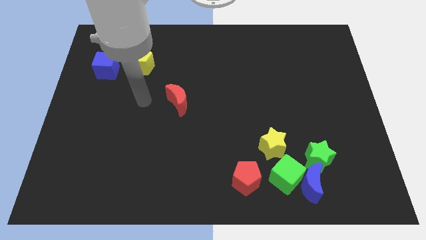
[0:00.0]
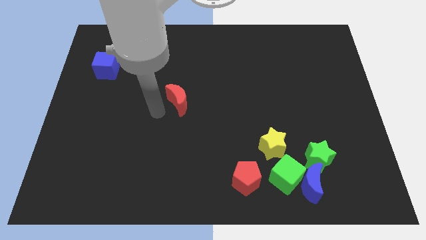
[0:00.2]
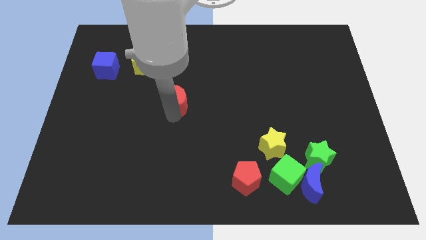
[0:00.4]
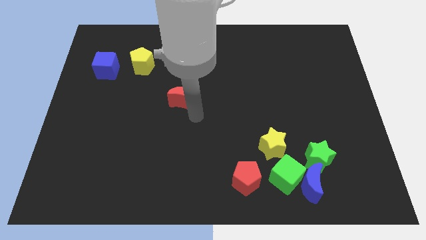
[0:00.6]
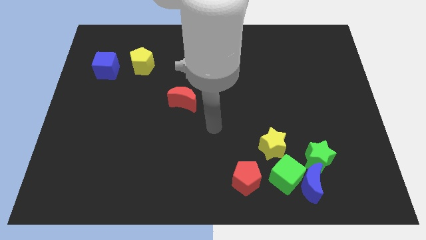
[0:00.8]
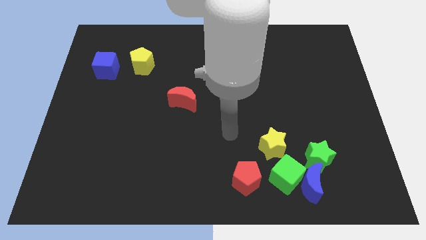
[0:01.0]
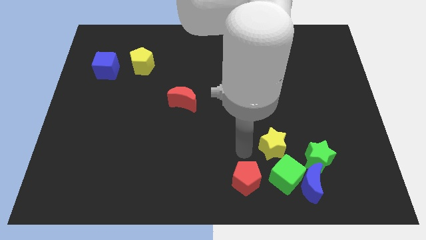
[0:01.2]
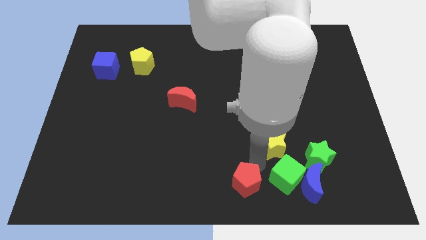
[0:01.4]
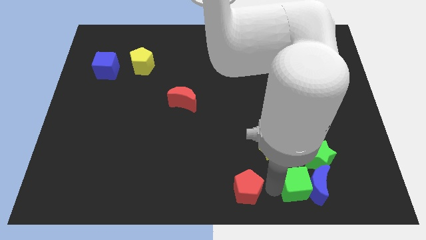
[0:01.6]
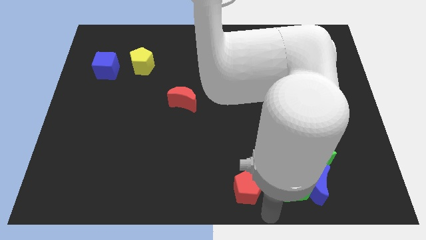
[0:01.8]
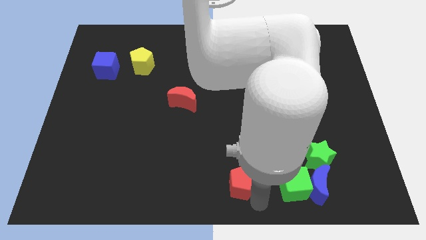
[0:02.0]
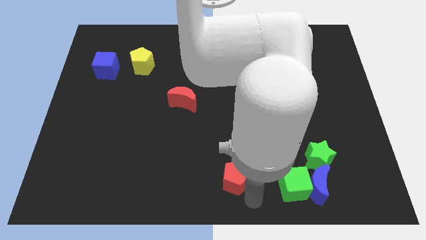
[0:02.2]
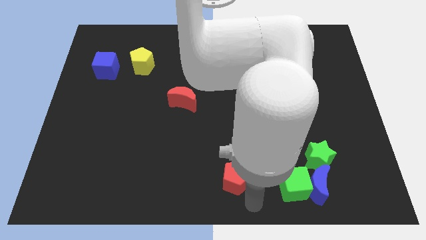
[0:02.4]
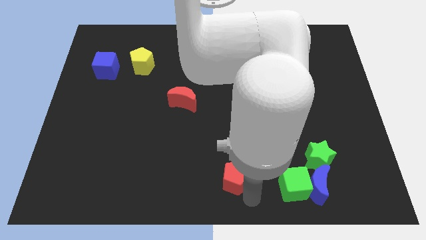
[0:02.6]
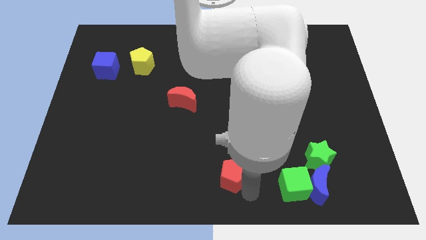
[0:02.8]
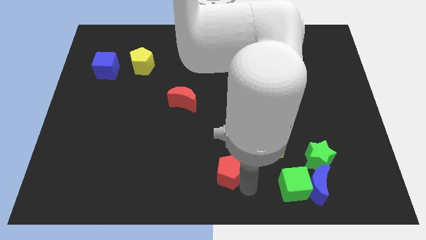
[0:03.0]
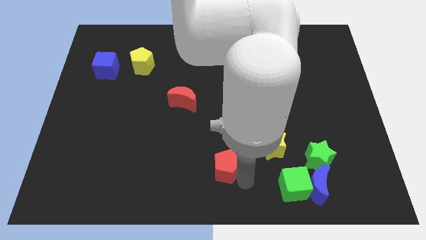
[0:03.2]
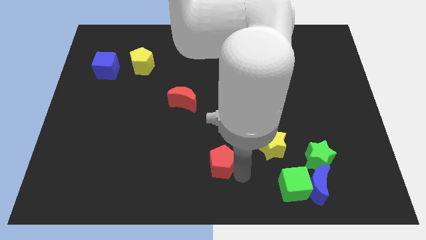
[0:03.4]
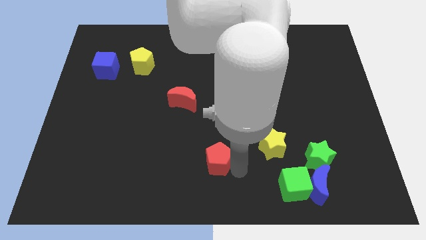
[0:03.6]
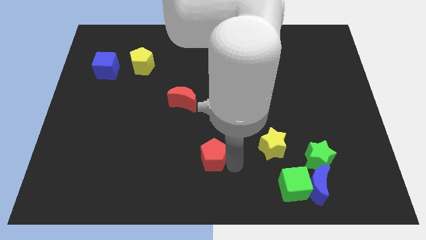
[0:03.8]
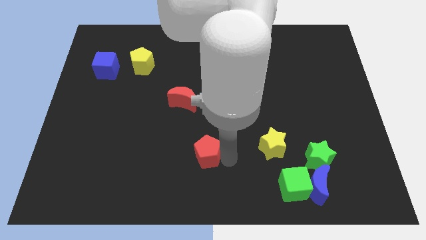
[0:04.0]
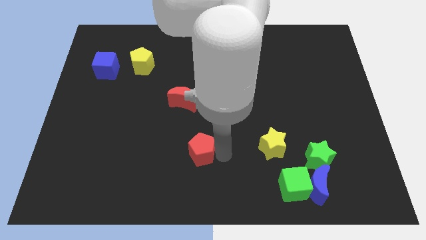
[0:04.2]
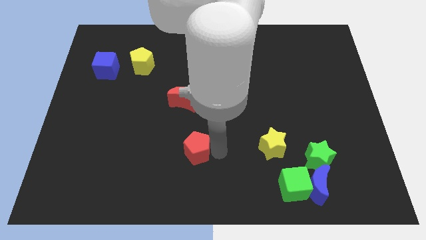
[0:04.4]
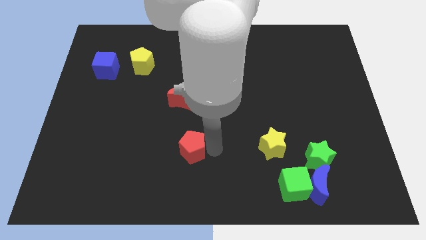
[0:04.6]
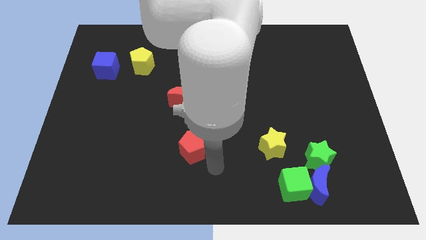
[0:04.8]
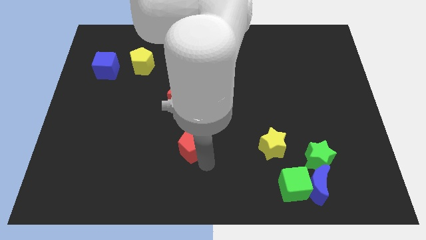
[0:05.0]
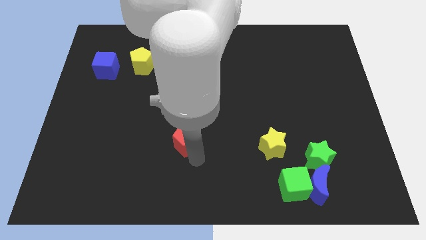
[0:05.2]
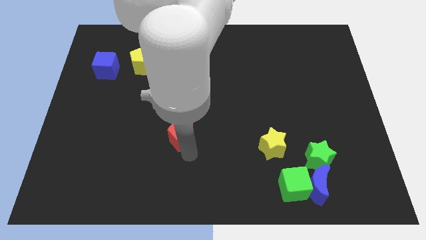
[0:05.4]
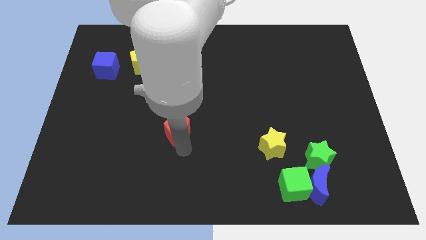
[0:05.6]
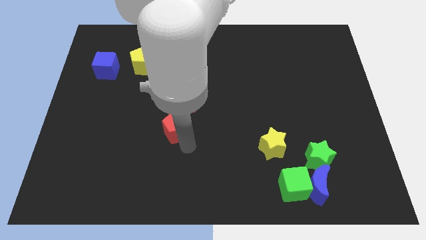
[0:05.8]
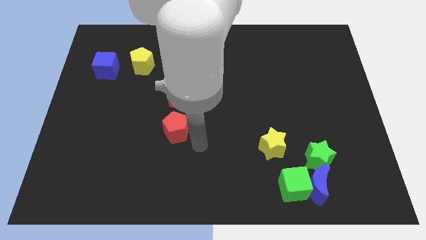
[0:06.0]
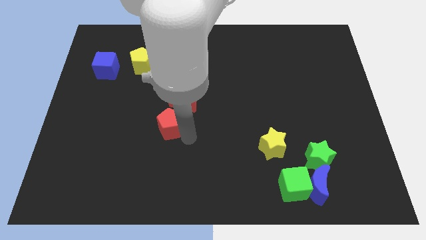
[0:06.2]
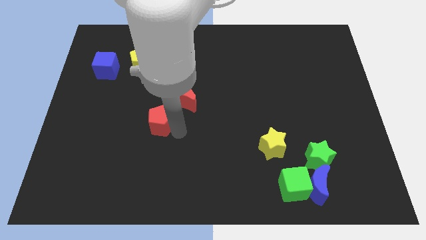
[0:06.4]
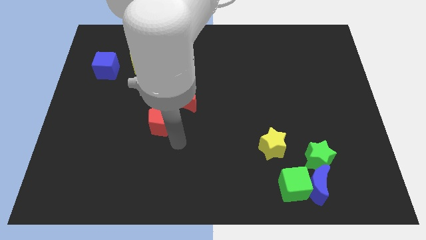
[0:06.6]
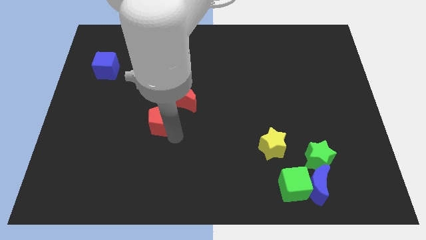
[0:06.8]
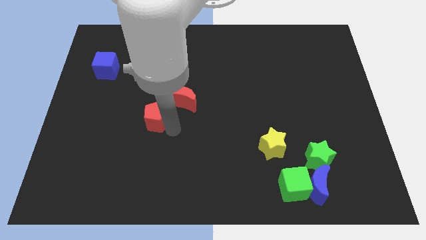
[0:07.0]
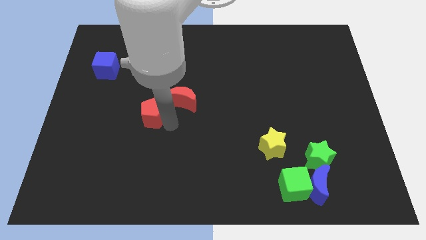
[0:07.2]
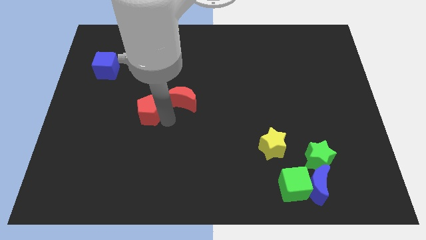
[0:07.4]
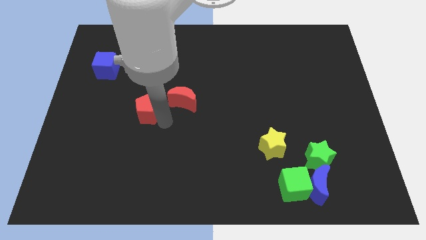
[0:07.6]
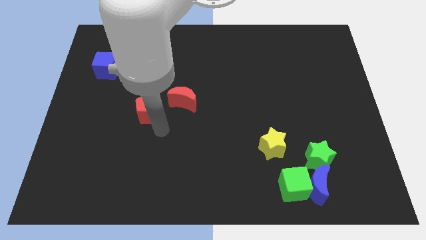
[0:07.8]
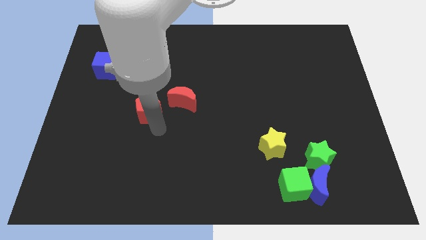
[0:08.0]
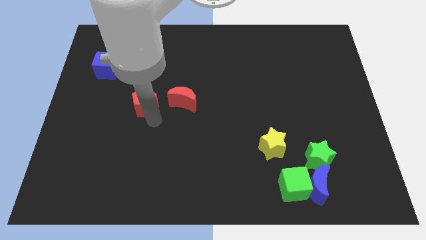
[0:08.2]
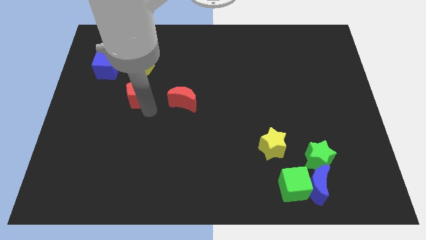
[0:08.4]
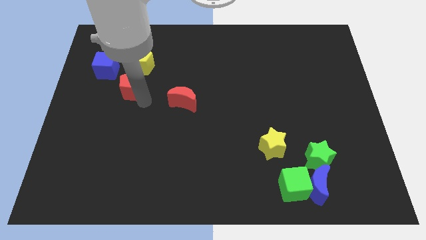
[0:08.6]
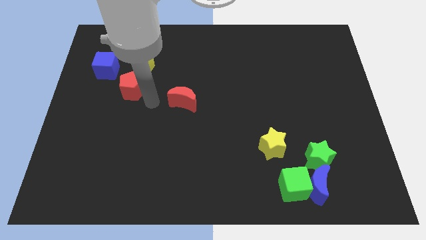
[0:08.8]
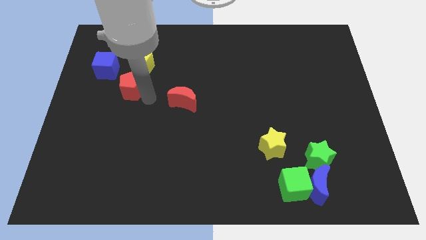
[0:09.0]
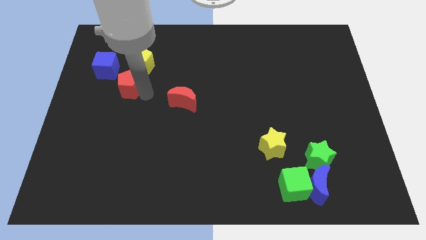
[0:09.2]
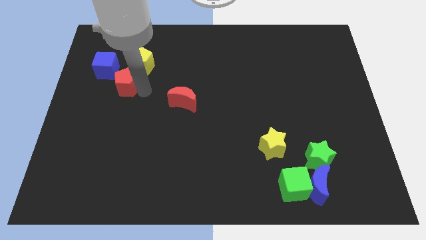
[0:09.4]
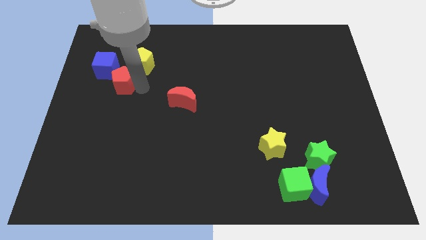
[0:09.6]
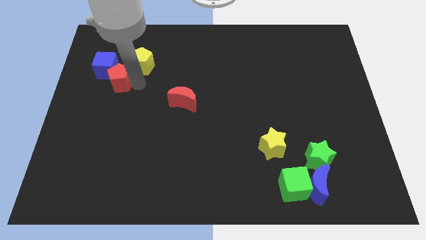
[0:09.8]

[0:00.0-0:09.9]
move the red pentagon close to the blue cube

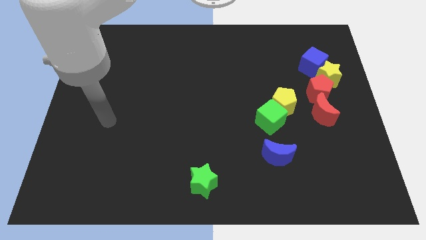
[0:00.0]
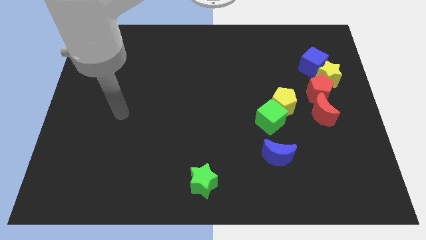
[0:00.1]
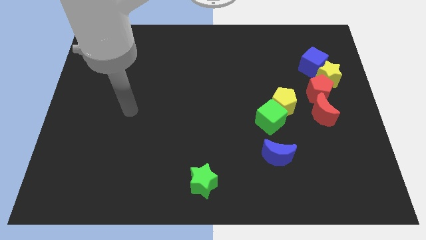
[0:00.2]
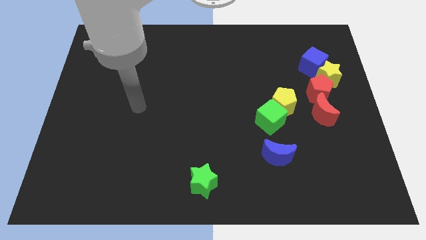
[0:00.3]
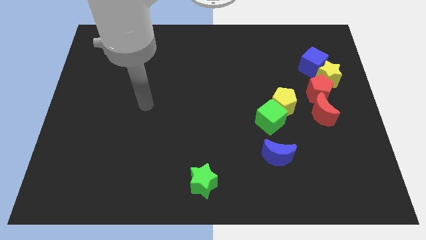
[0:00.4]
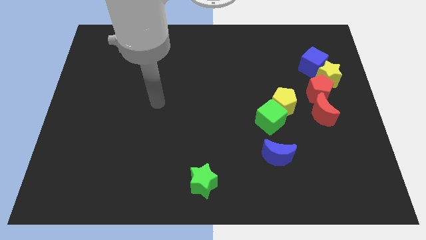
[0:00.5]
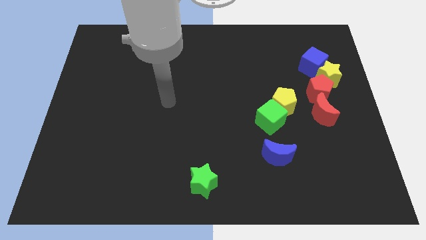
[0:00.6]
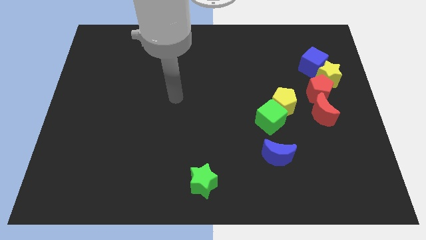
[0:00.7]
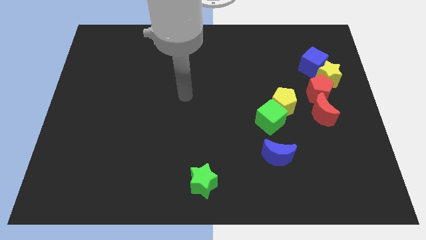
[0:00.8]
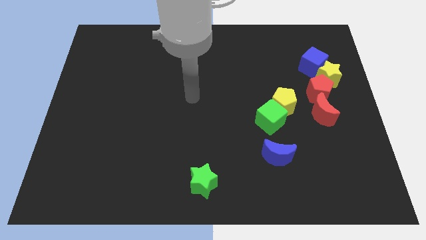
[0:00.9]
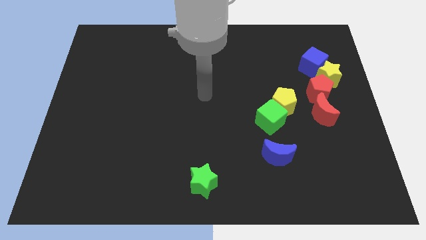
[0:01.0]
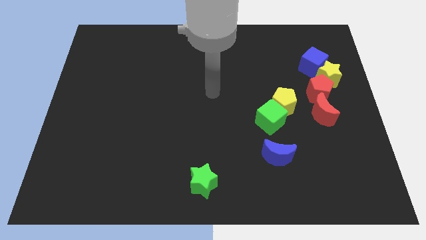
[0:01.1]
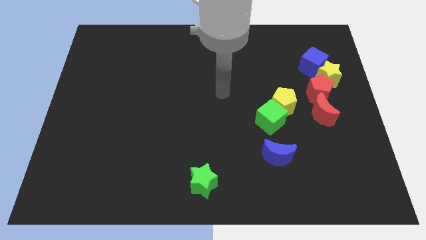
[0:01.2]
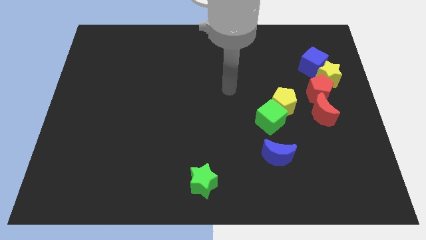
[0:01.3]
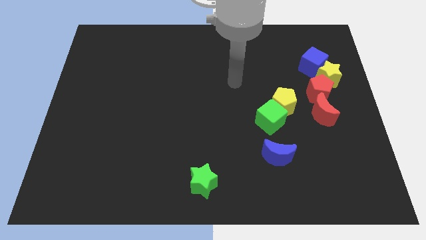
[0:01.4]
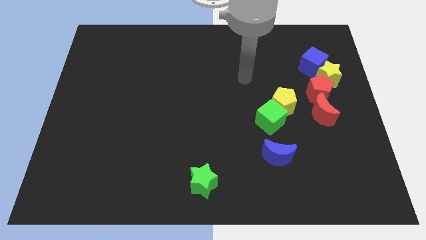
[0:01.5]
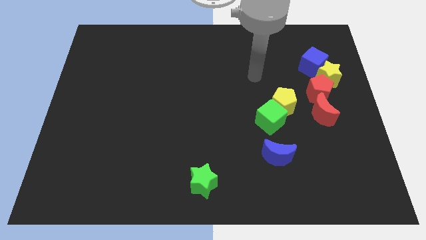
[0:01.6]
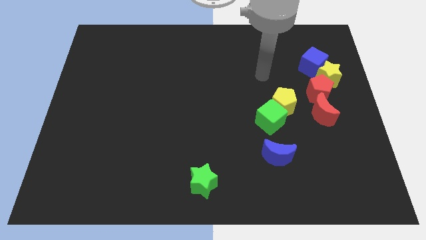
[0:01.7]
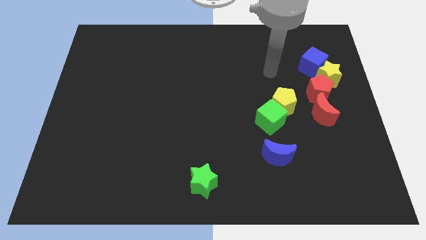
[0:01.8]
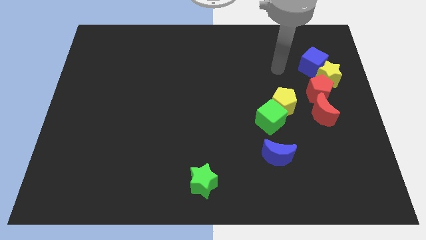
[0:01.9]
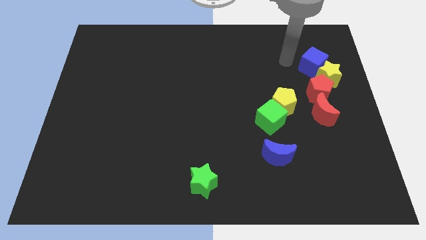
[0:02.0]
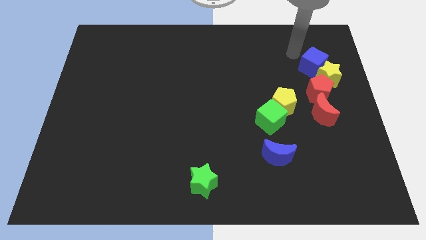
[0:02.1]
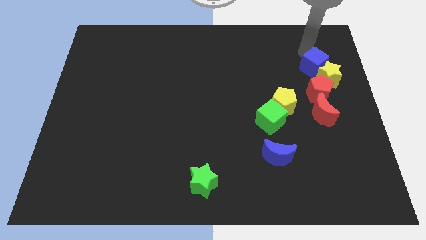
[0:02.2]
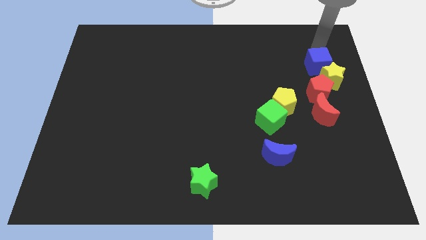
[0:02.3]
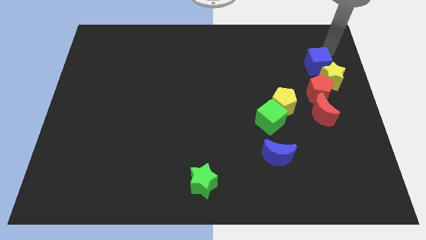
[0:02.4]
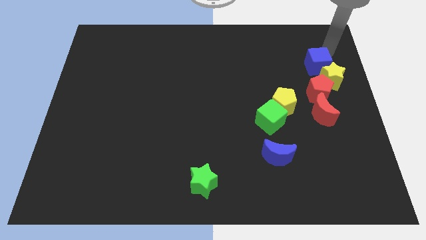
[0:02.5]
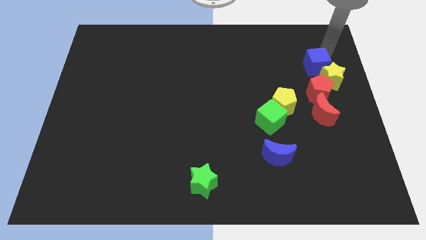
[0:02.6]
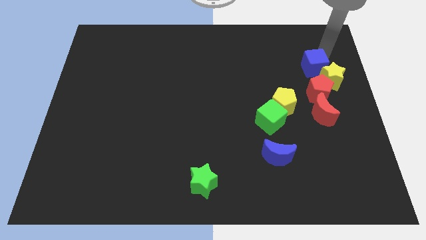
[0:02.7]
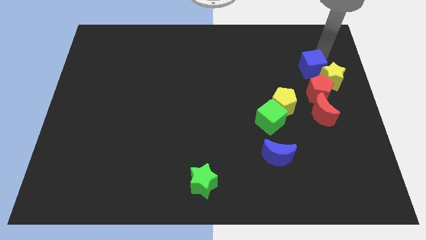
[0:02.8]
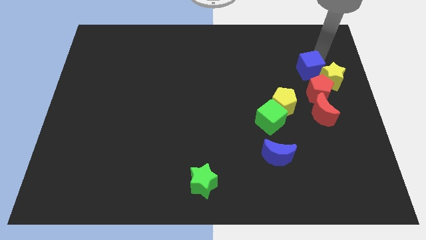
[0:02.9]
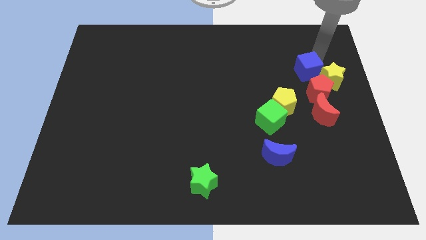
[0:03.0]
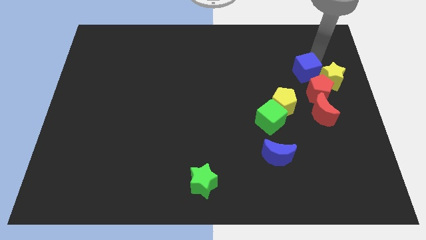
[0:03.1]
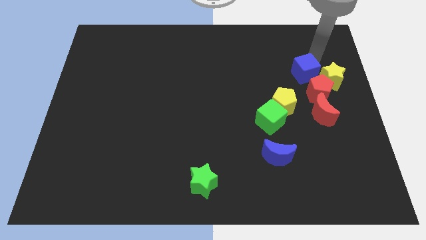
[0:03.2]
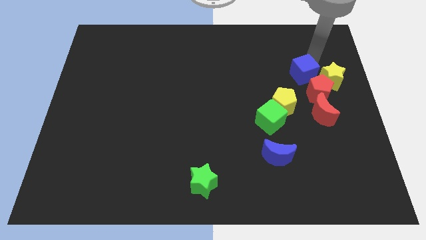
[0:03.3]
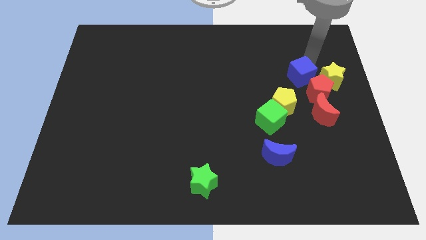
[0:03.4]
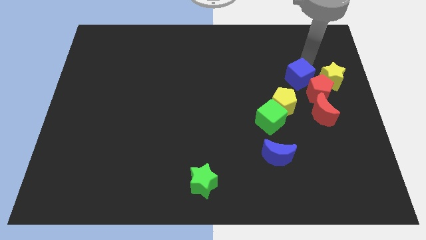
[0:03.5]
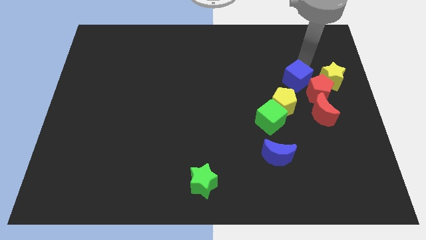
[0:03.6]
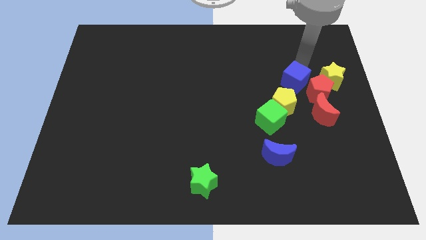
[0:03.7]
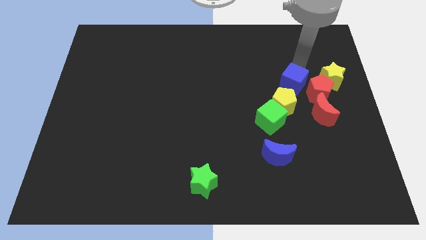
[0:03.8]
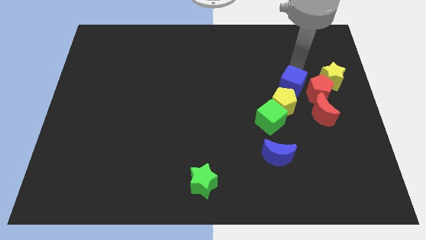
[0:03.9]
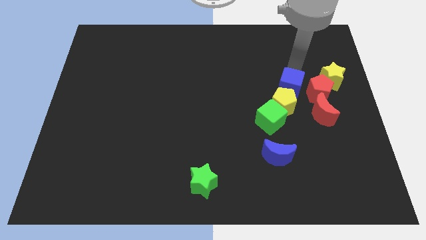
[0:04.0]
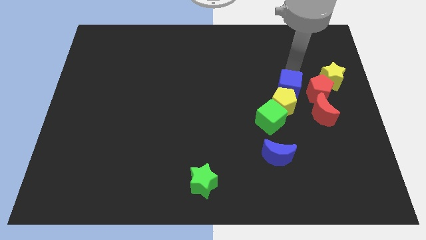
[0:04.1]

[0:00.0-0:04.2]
push the blue cube to the yellow pentagon
